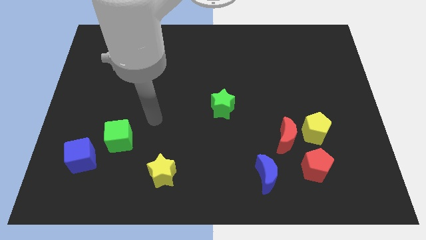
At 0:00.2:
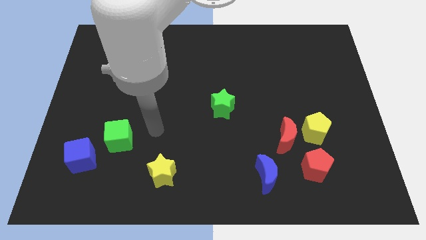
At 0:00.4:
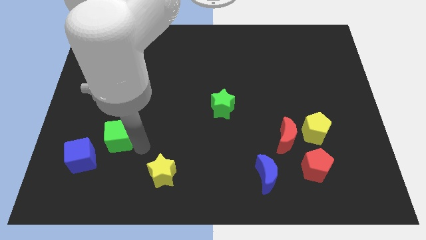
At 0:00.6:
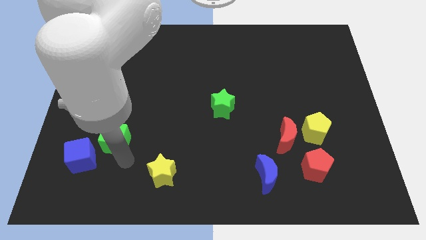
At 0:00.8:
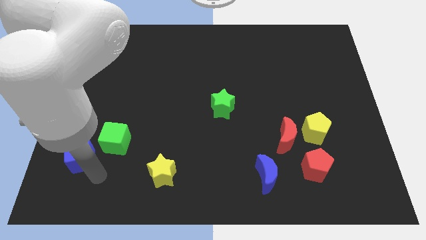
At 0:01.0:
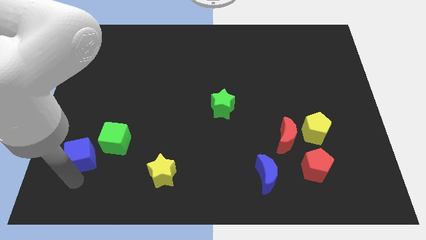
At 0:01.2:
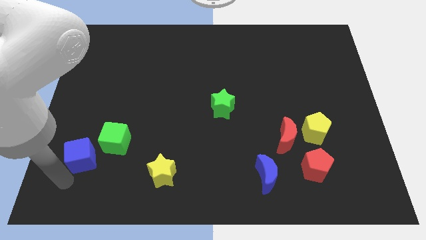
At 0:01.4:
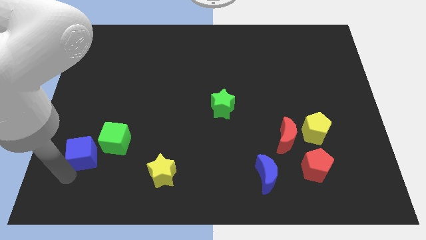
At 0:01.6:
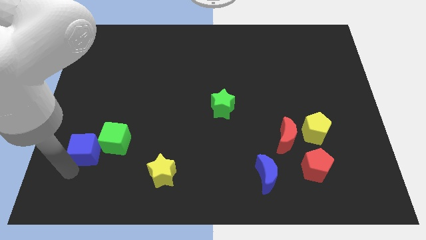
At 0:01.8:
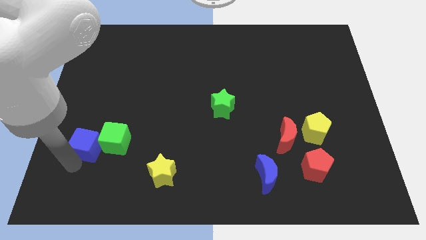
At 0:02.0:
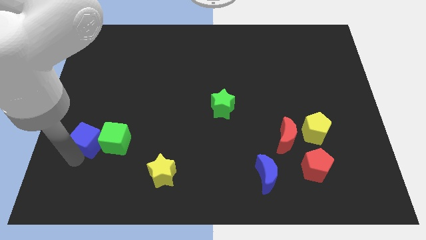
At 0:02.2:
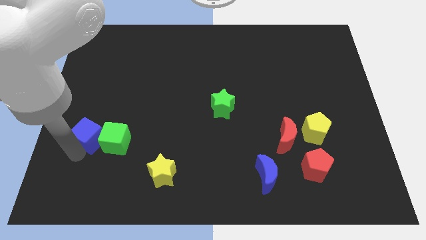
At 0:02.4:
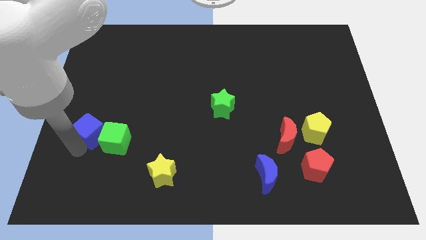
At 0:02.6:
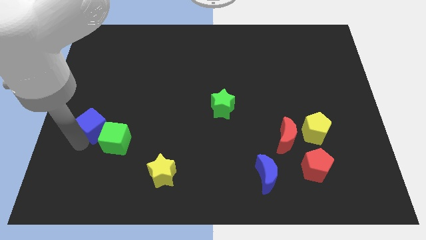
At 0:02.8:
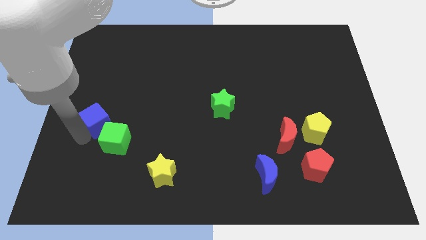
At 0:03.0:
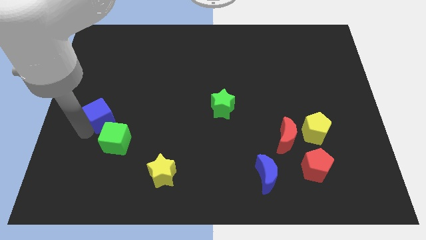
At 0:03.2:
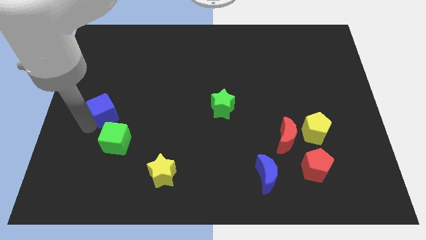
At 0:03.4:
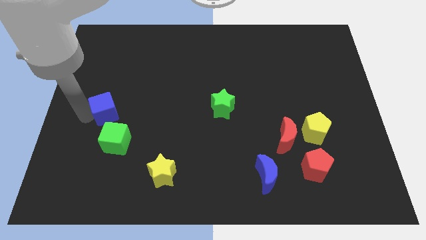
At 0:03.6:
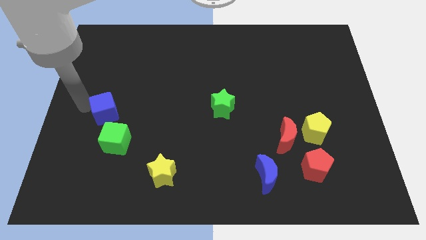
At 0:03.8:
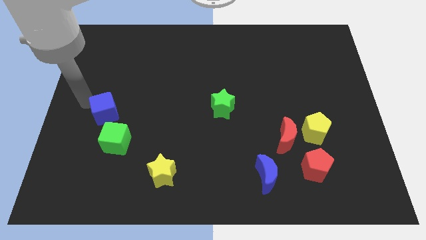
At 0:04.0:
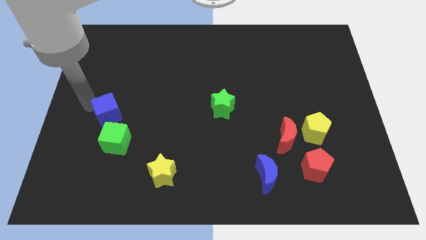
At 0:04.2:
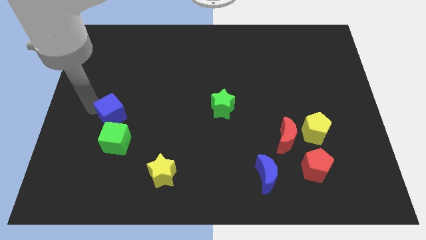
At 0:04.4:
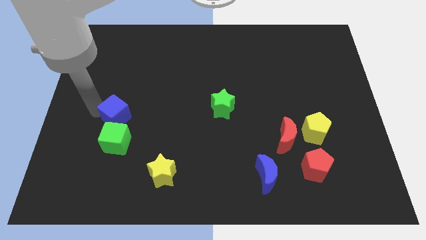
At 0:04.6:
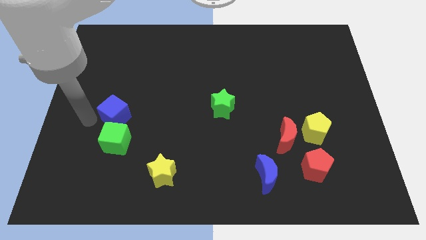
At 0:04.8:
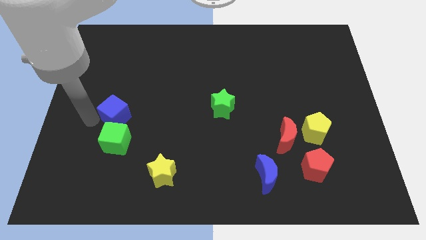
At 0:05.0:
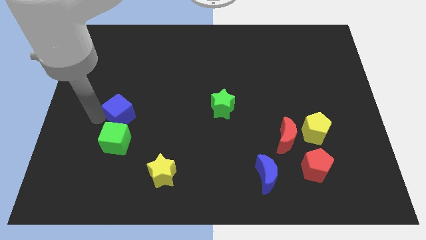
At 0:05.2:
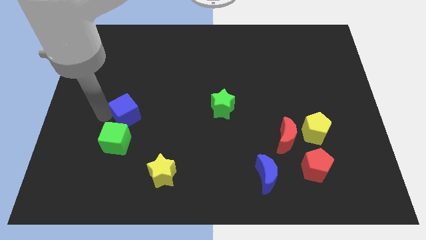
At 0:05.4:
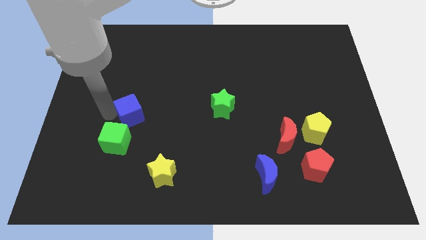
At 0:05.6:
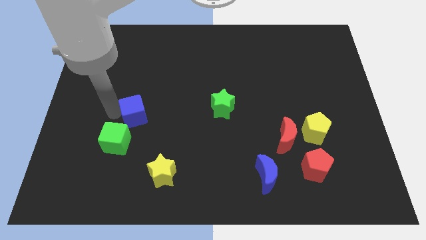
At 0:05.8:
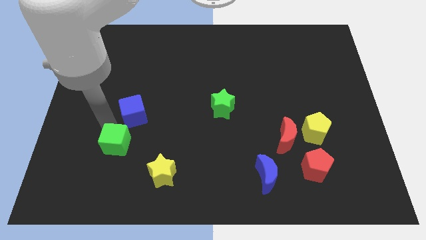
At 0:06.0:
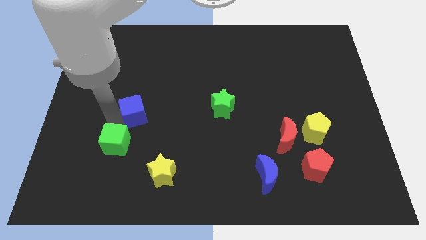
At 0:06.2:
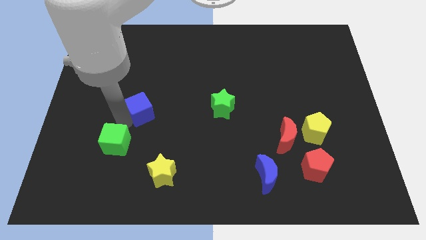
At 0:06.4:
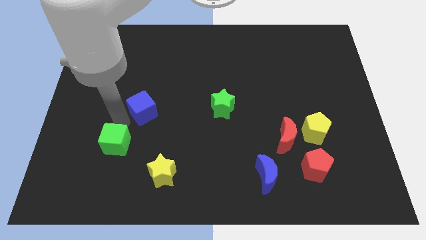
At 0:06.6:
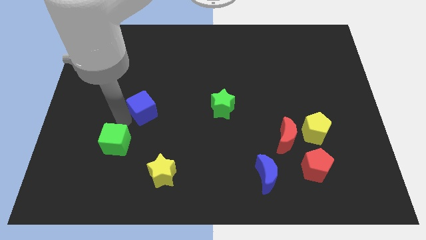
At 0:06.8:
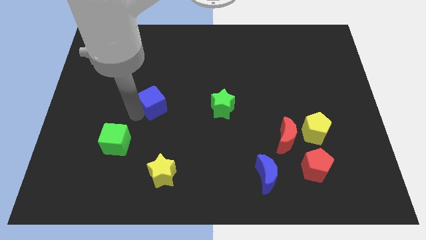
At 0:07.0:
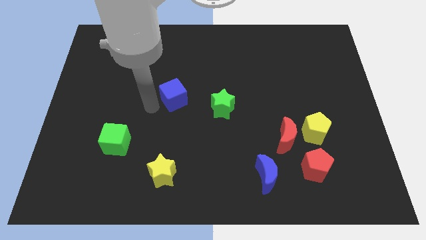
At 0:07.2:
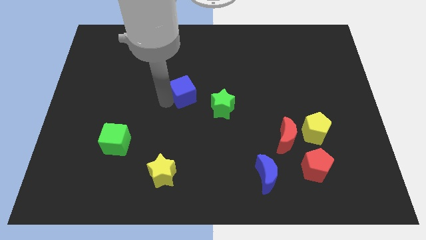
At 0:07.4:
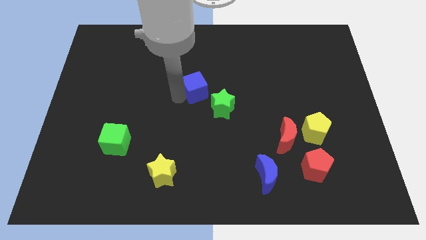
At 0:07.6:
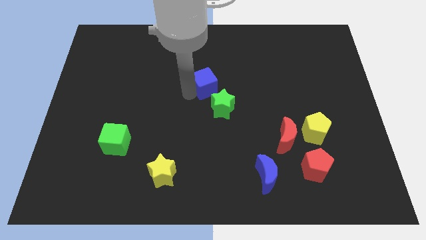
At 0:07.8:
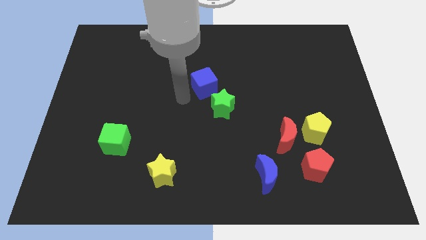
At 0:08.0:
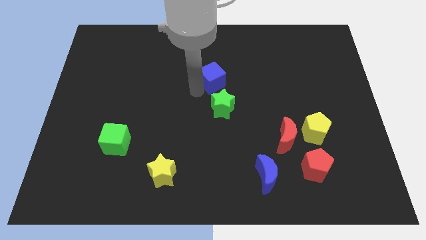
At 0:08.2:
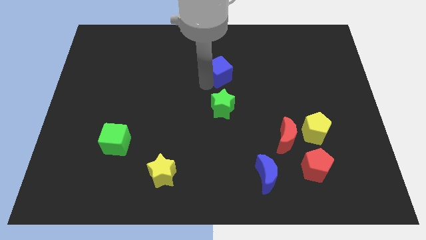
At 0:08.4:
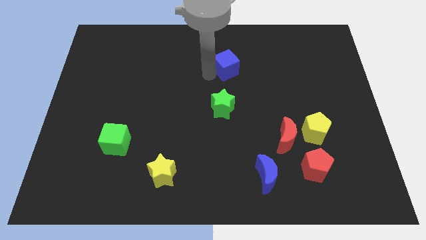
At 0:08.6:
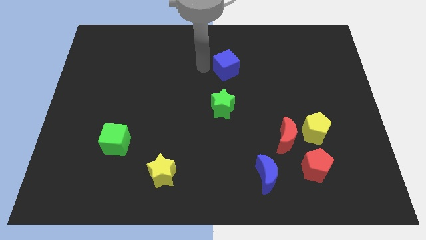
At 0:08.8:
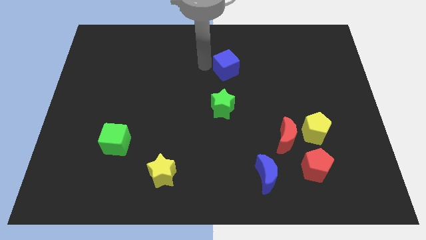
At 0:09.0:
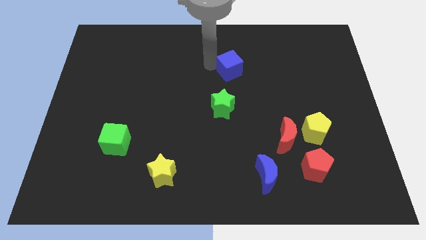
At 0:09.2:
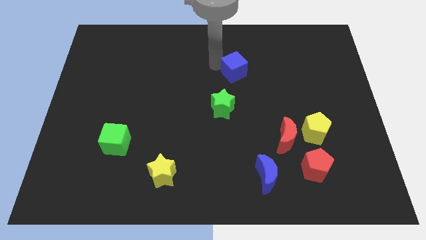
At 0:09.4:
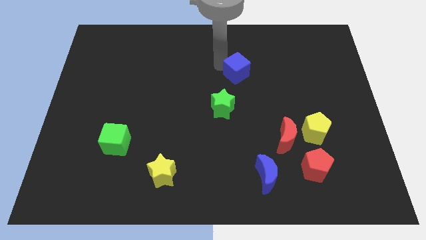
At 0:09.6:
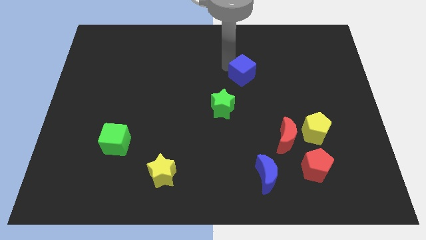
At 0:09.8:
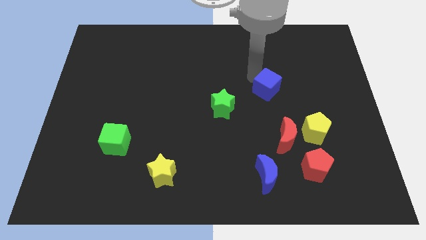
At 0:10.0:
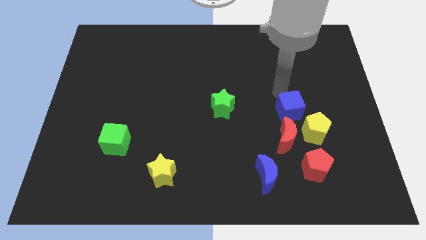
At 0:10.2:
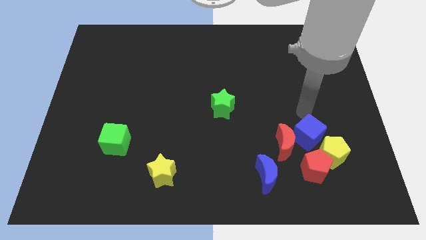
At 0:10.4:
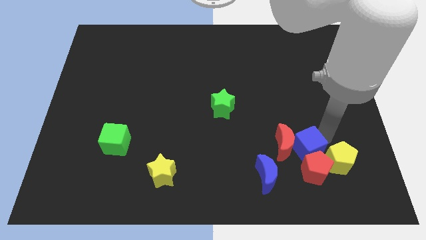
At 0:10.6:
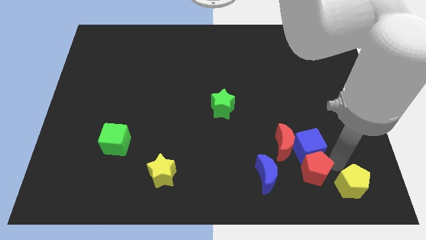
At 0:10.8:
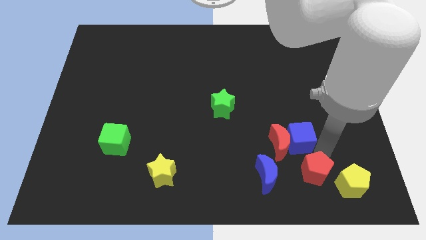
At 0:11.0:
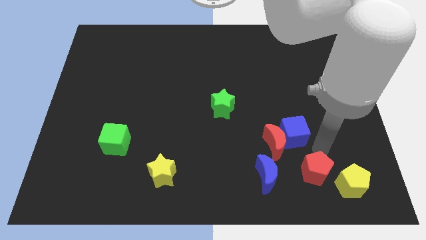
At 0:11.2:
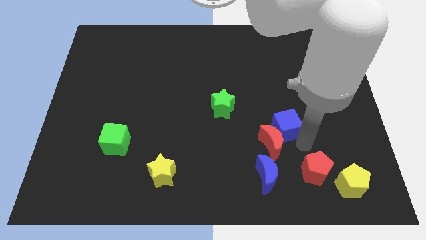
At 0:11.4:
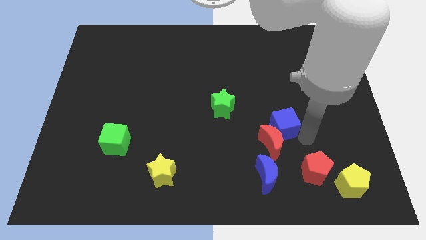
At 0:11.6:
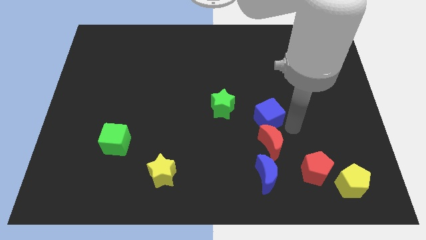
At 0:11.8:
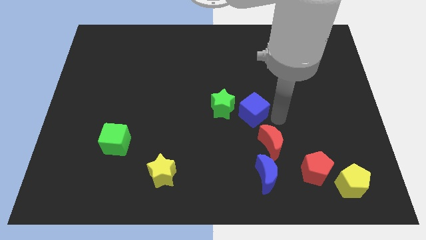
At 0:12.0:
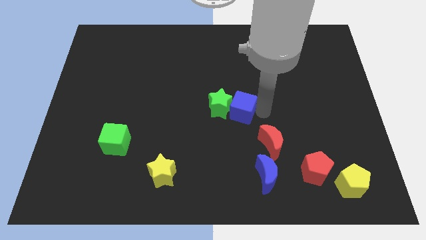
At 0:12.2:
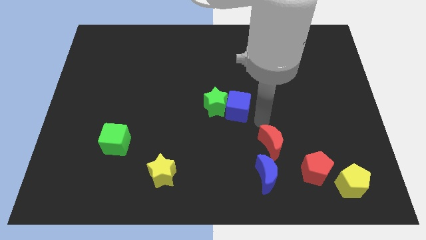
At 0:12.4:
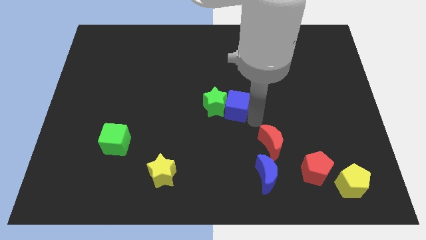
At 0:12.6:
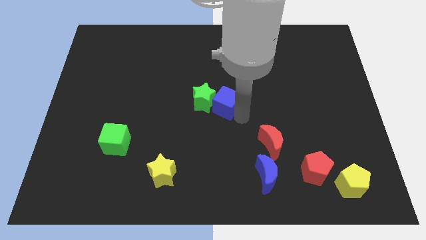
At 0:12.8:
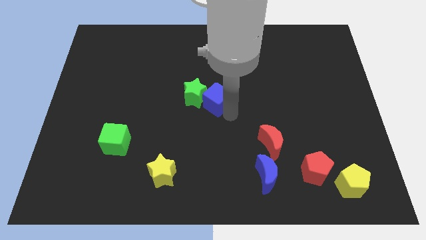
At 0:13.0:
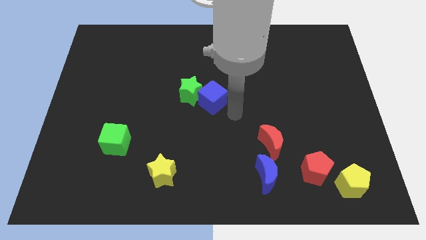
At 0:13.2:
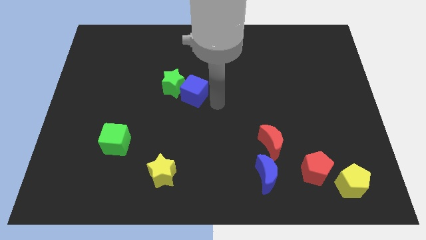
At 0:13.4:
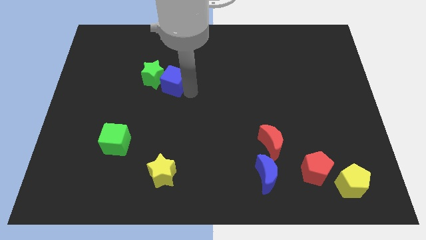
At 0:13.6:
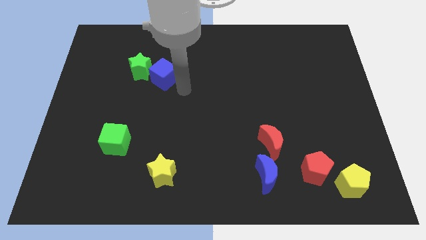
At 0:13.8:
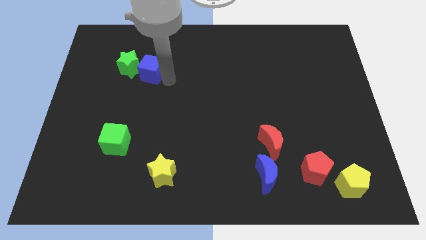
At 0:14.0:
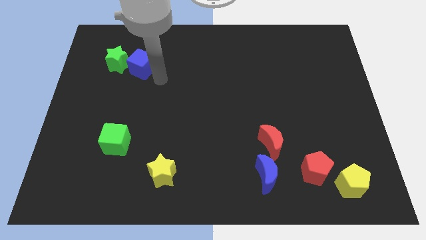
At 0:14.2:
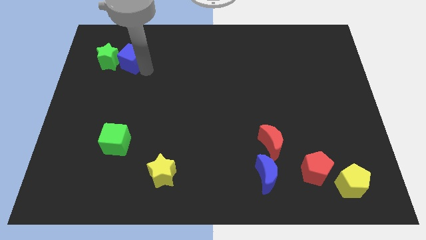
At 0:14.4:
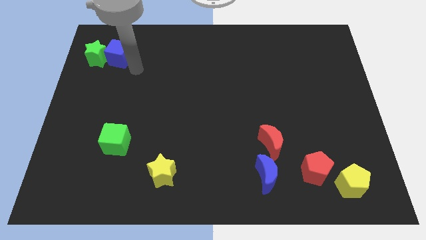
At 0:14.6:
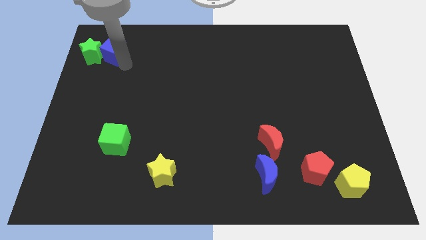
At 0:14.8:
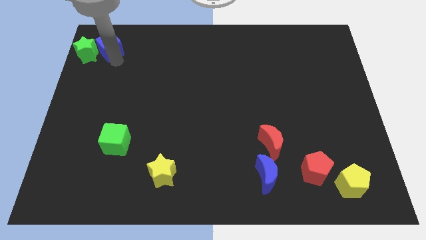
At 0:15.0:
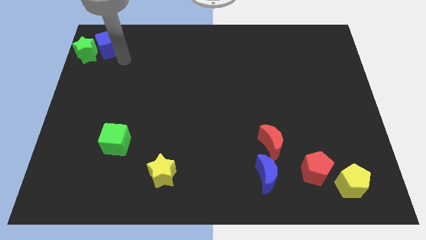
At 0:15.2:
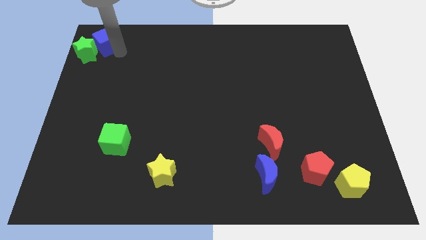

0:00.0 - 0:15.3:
move the blue cube to the upper left corner

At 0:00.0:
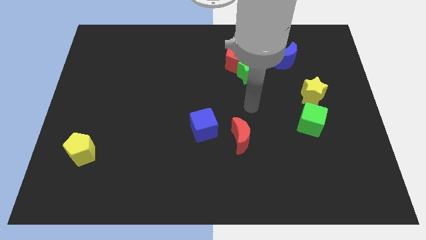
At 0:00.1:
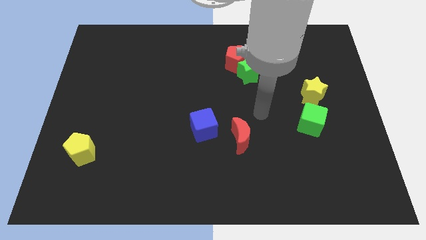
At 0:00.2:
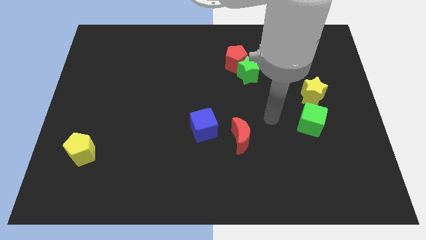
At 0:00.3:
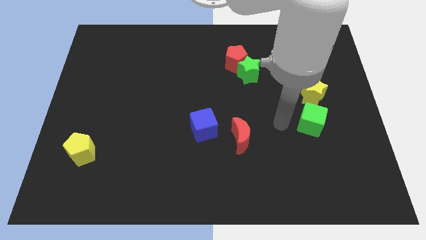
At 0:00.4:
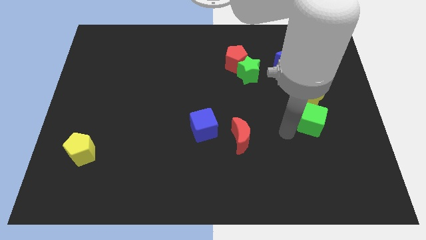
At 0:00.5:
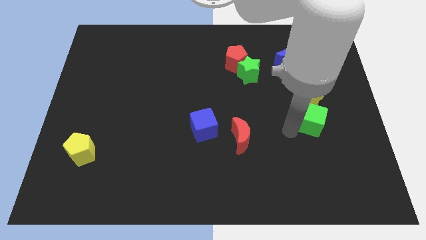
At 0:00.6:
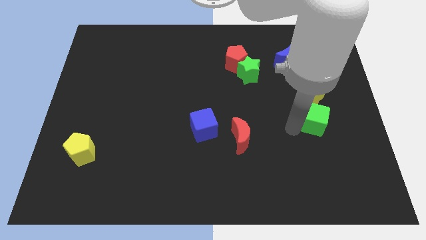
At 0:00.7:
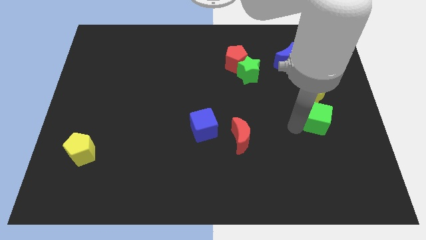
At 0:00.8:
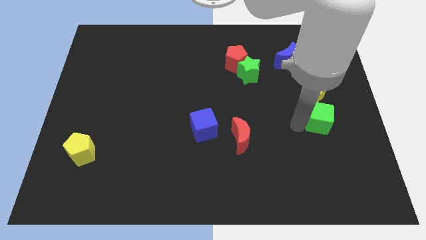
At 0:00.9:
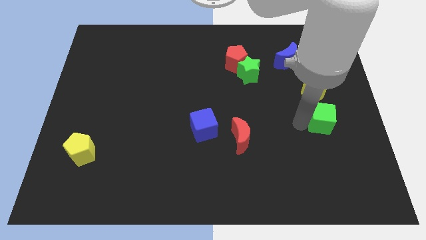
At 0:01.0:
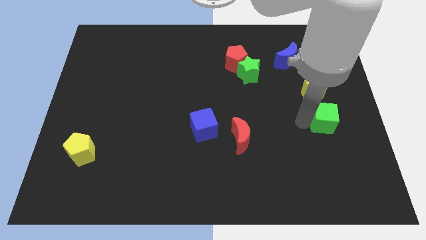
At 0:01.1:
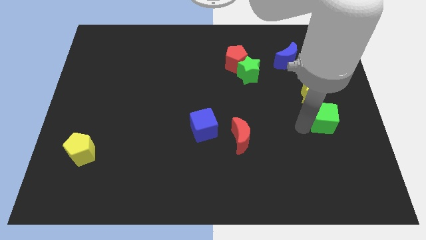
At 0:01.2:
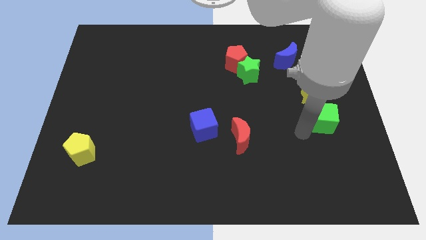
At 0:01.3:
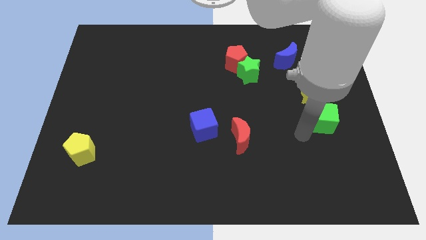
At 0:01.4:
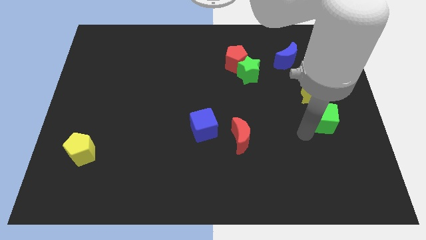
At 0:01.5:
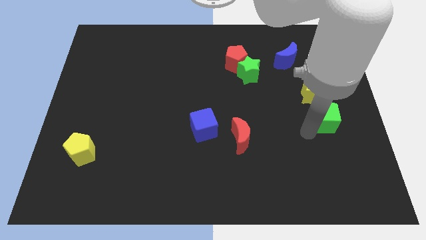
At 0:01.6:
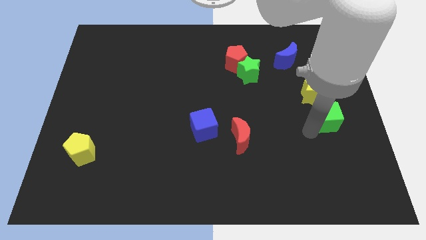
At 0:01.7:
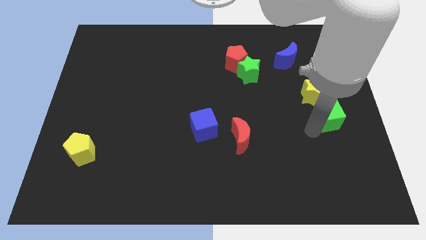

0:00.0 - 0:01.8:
push the green cube to the center right
